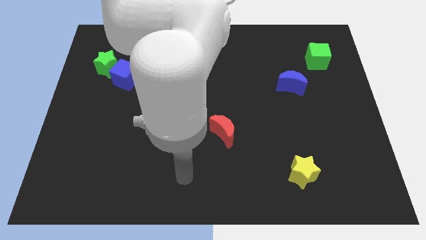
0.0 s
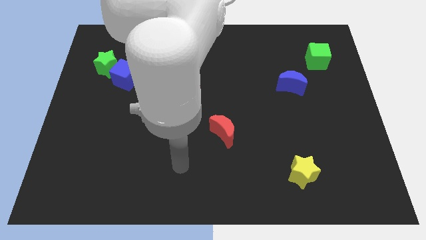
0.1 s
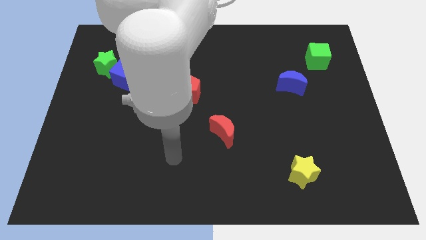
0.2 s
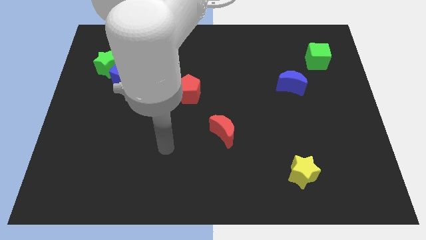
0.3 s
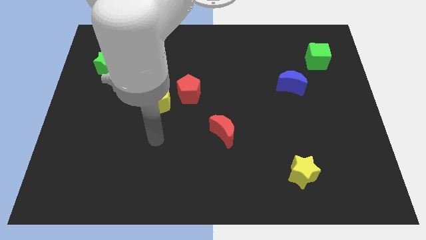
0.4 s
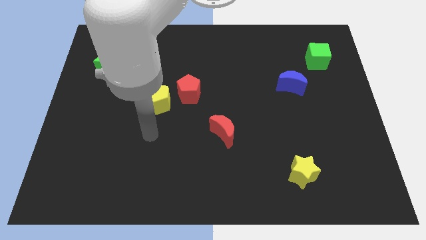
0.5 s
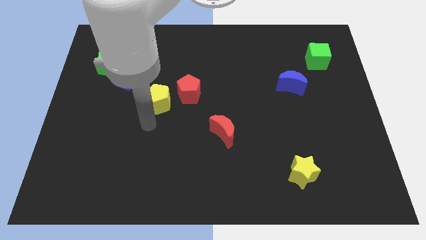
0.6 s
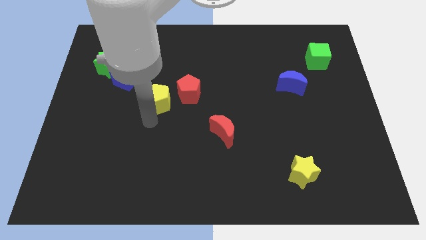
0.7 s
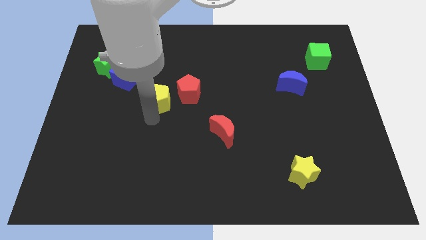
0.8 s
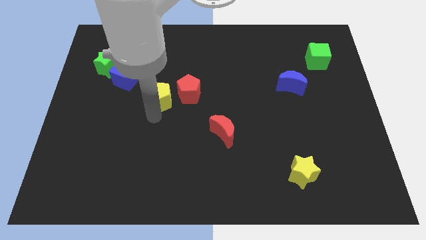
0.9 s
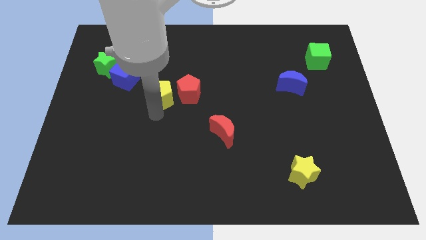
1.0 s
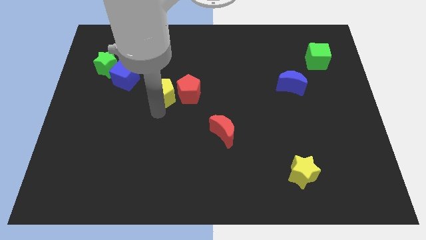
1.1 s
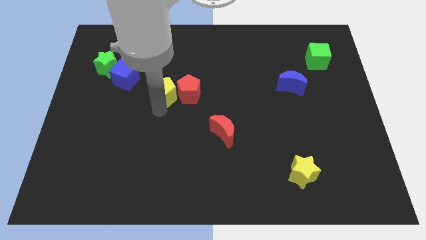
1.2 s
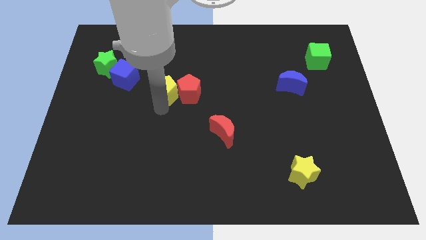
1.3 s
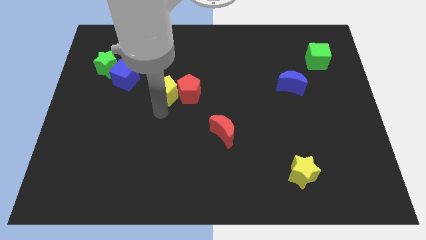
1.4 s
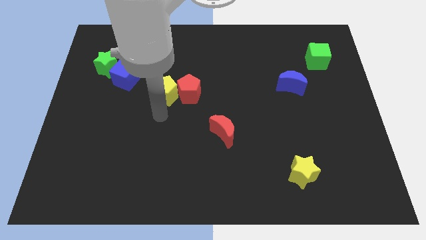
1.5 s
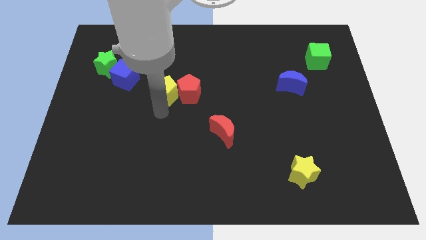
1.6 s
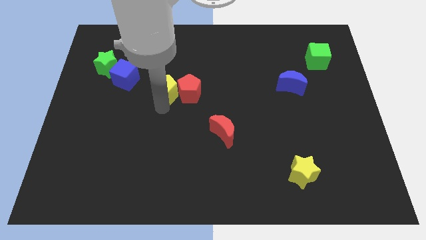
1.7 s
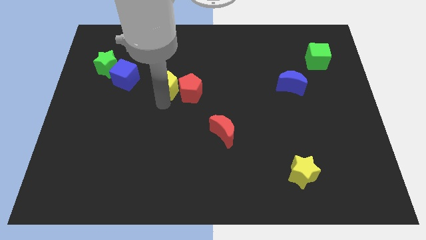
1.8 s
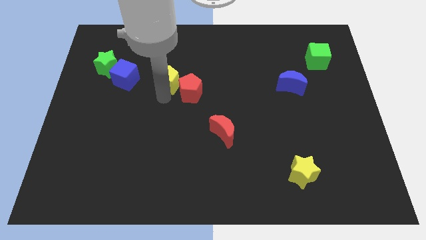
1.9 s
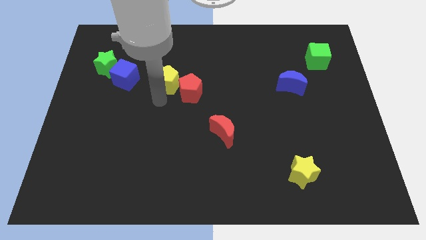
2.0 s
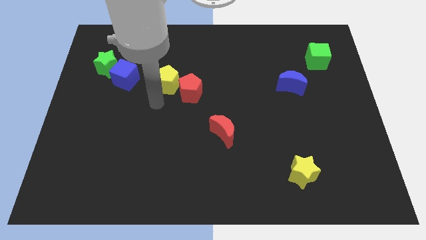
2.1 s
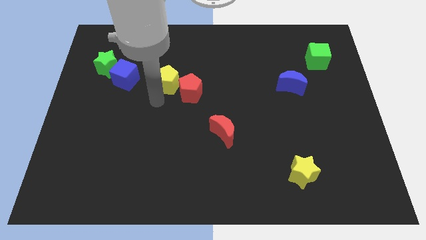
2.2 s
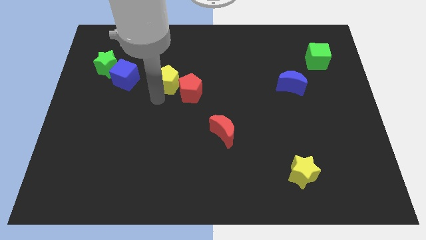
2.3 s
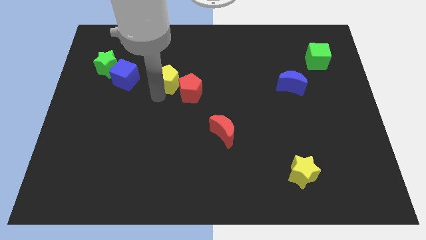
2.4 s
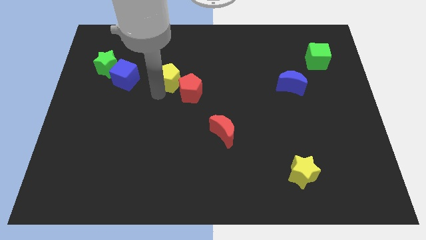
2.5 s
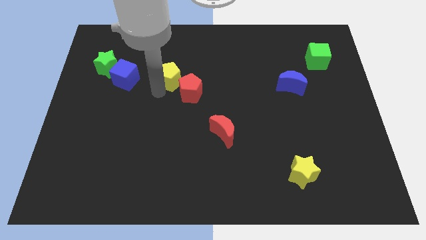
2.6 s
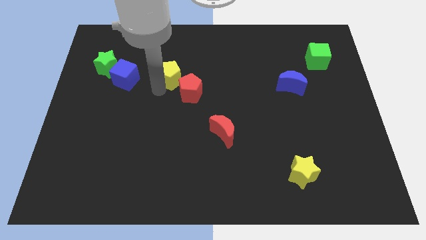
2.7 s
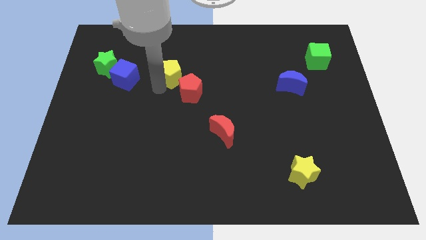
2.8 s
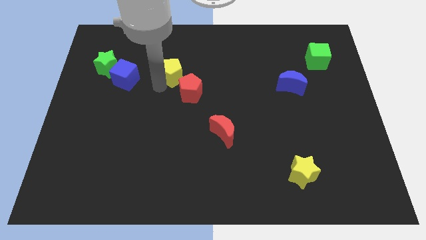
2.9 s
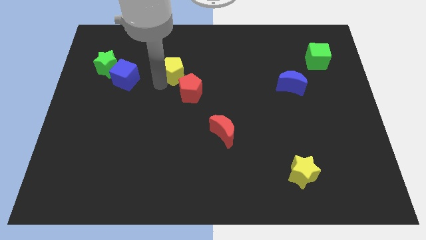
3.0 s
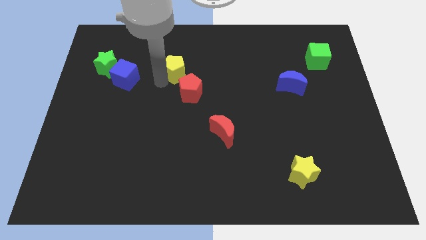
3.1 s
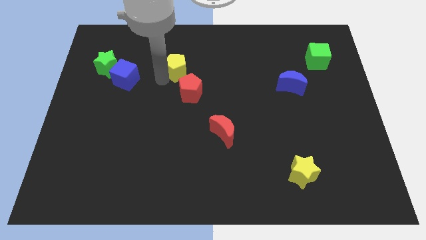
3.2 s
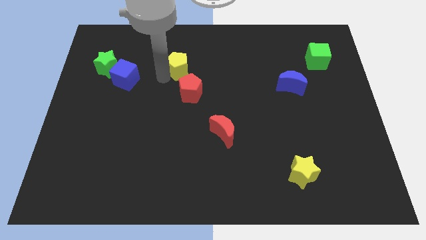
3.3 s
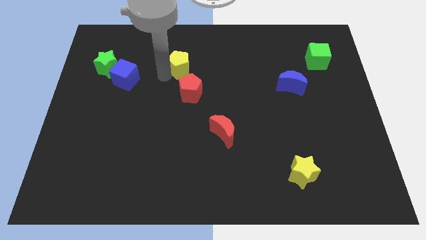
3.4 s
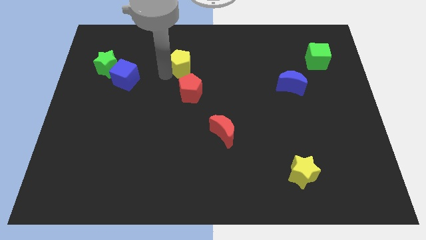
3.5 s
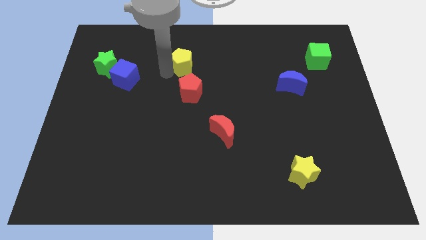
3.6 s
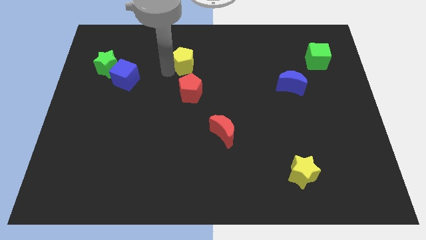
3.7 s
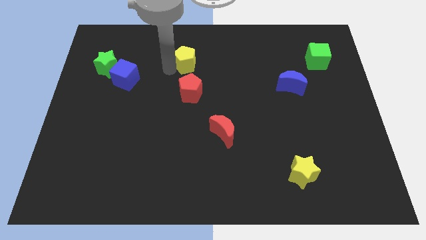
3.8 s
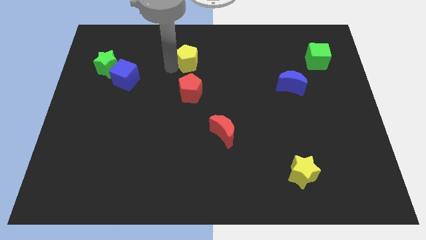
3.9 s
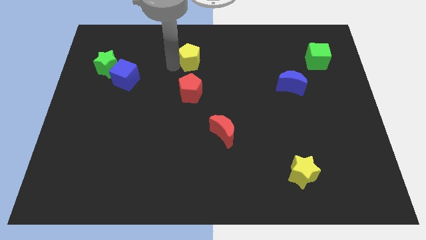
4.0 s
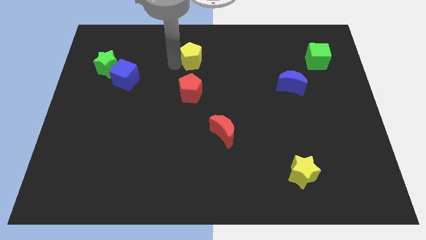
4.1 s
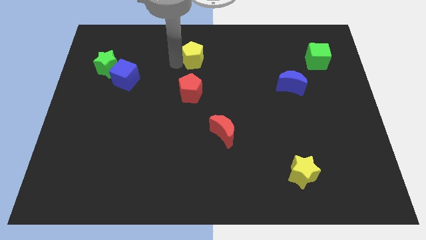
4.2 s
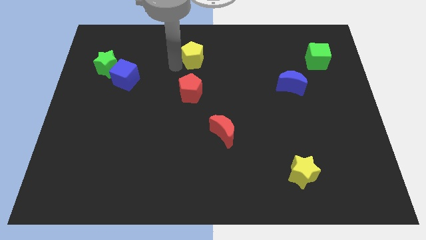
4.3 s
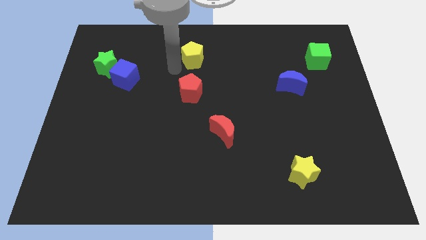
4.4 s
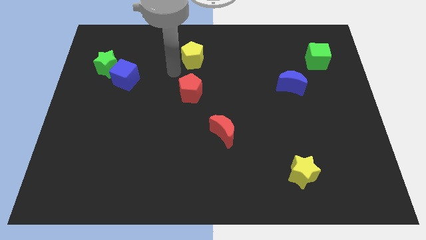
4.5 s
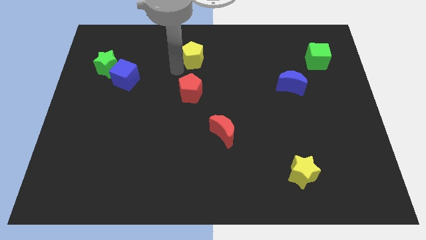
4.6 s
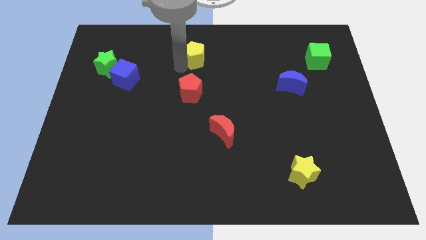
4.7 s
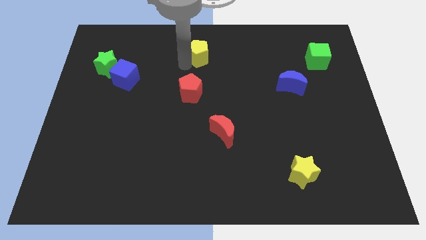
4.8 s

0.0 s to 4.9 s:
put the yellow pentagon to the top side

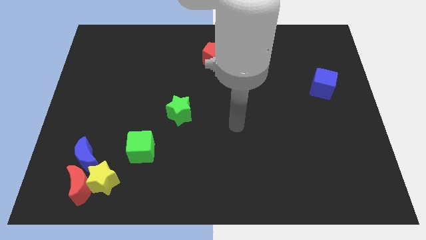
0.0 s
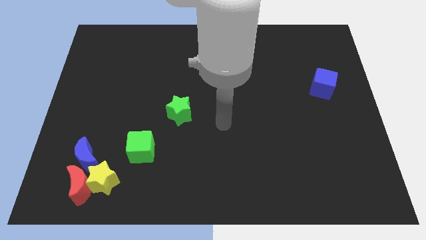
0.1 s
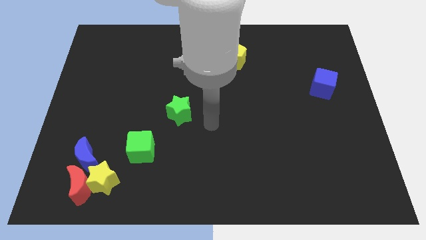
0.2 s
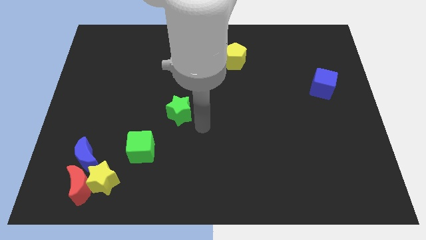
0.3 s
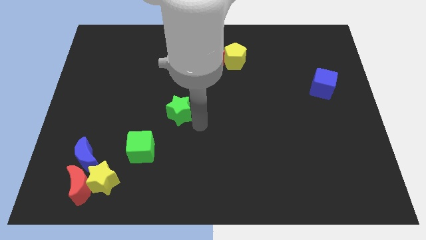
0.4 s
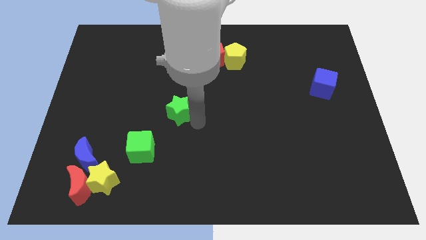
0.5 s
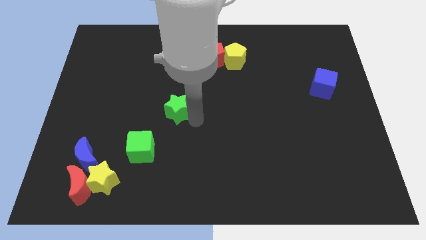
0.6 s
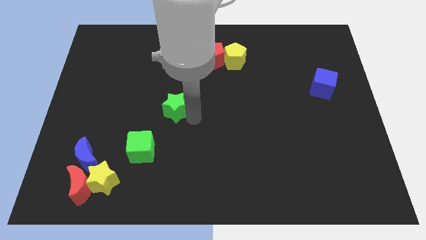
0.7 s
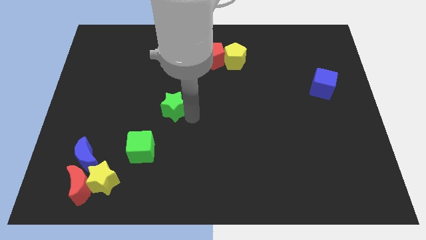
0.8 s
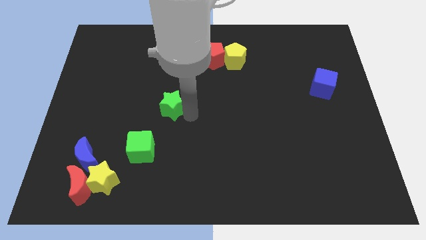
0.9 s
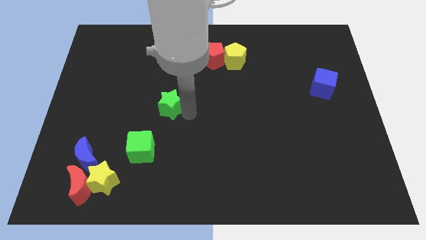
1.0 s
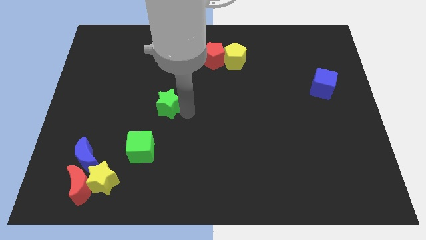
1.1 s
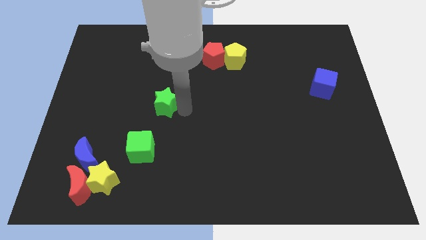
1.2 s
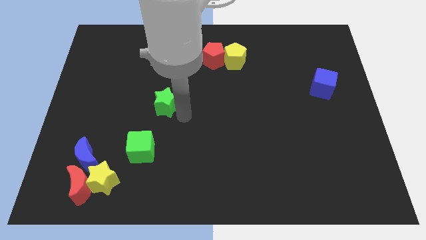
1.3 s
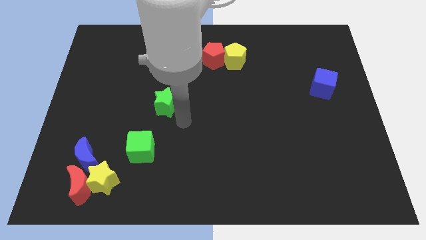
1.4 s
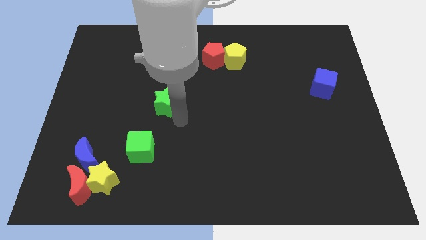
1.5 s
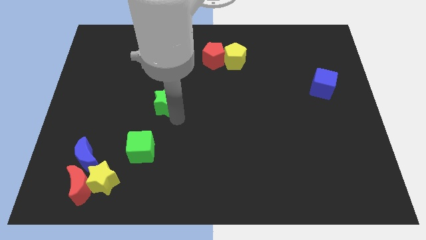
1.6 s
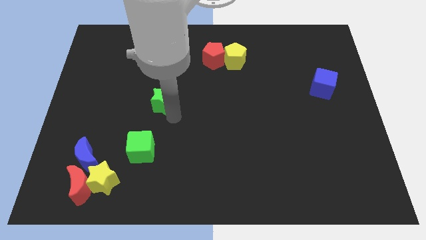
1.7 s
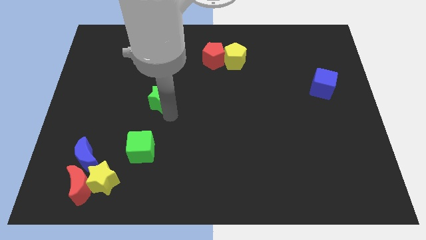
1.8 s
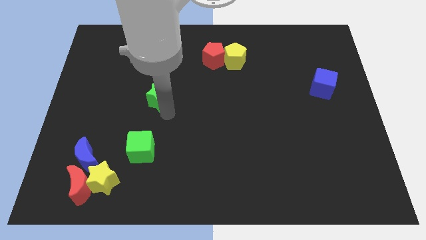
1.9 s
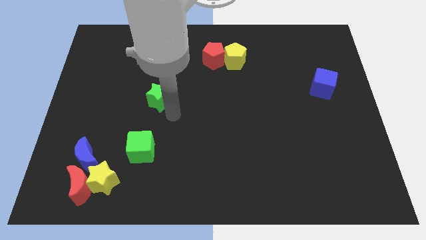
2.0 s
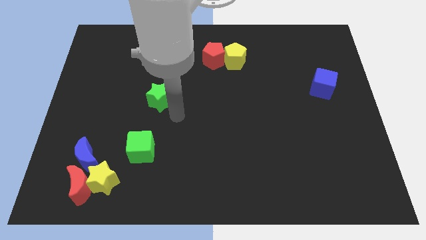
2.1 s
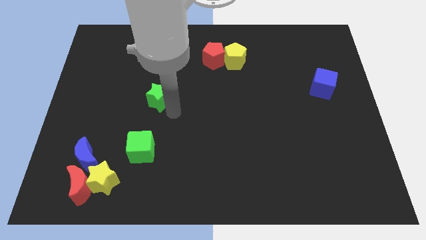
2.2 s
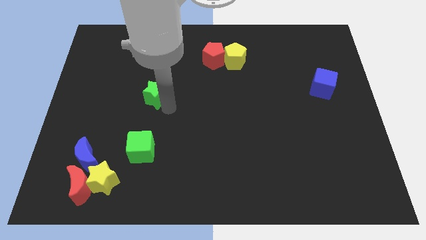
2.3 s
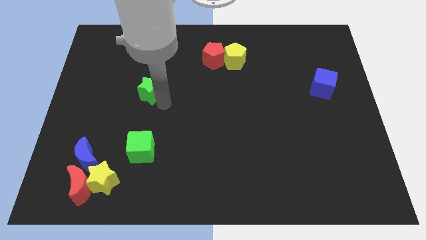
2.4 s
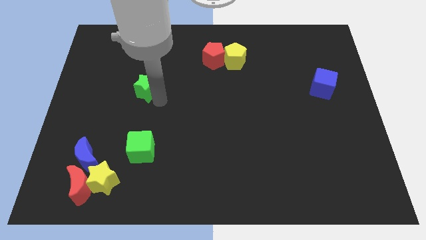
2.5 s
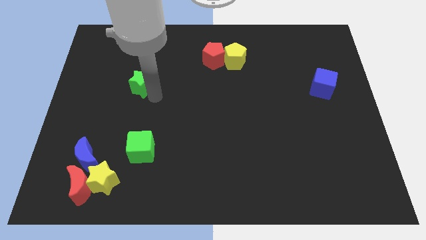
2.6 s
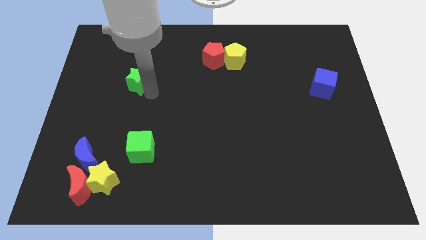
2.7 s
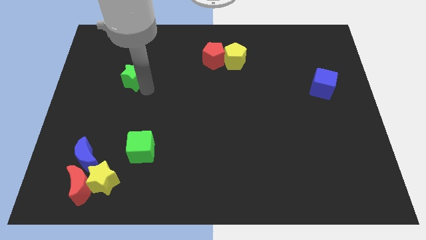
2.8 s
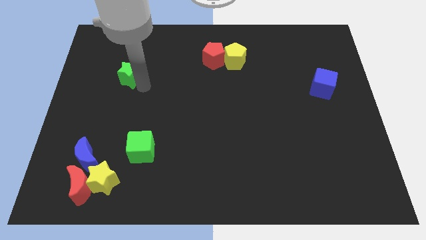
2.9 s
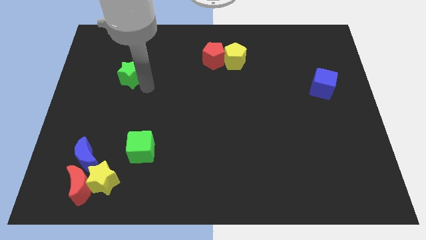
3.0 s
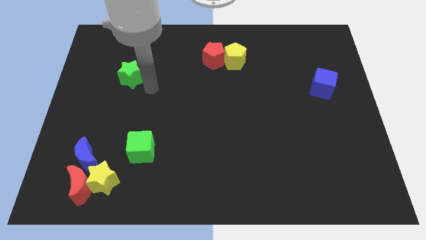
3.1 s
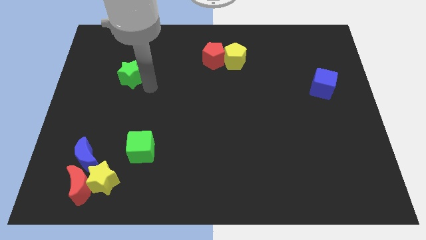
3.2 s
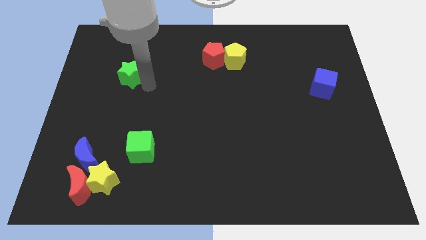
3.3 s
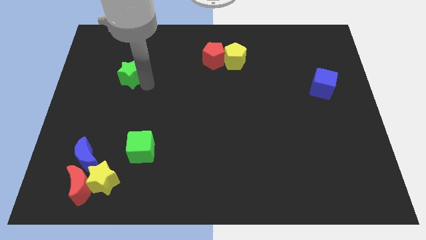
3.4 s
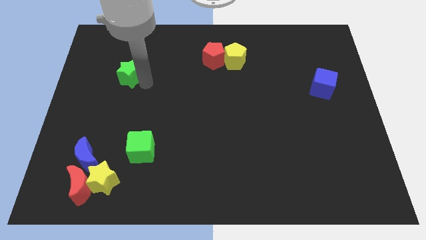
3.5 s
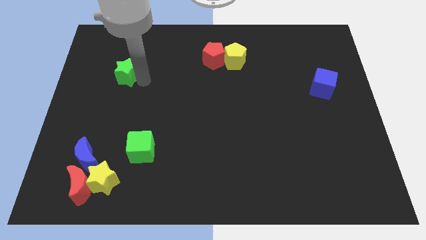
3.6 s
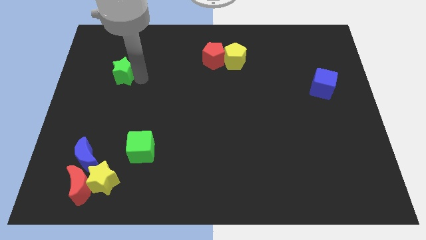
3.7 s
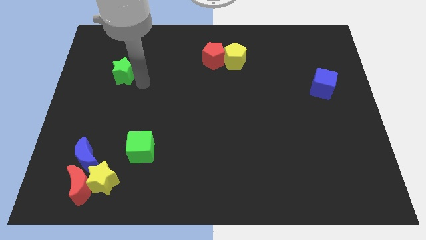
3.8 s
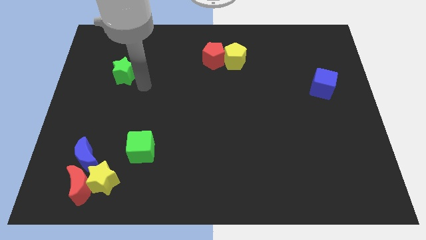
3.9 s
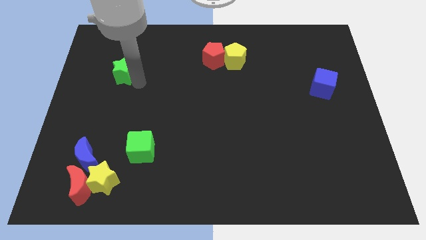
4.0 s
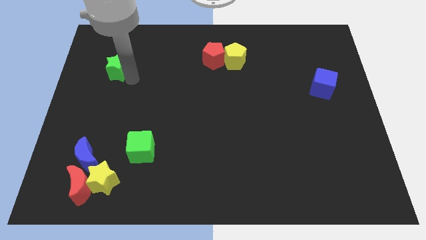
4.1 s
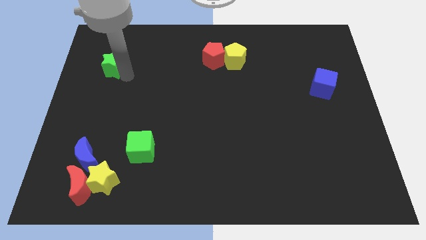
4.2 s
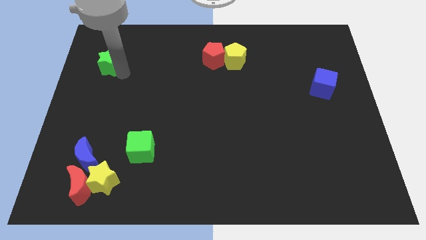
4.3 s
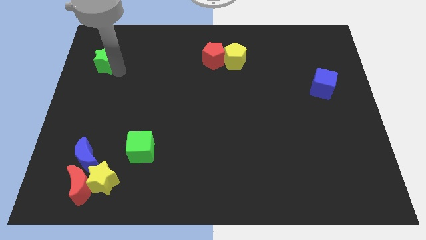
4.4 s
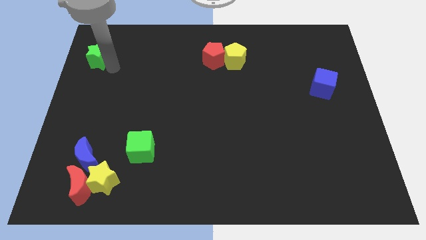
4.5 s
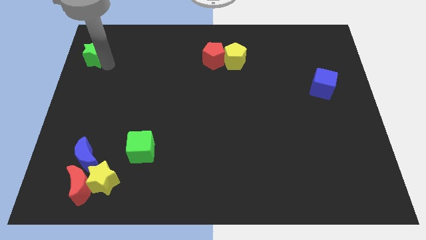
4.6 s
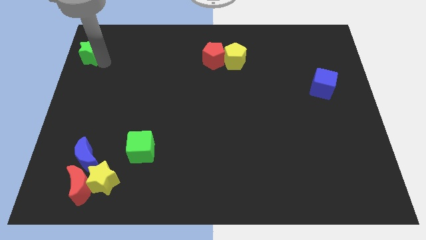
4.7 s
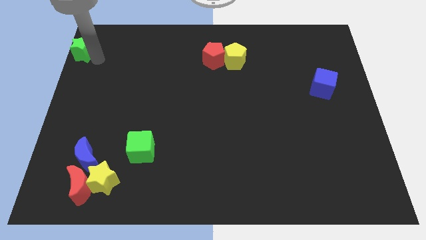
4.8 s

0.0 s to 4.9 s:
move the green star to the top left corner
